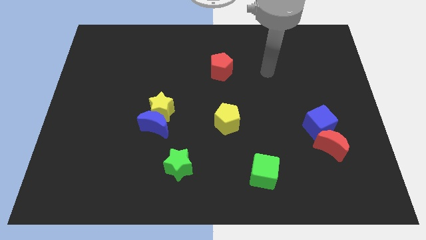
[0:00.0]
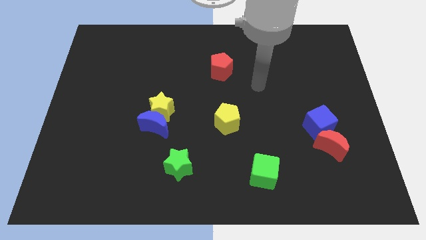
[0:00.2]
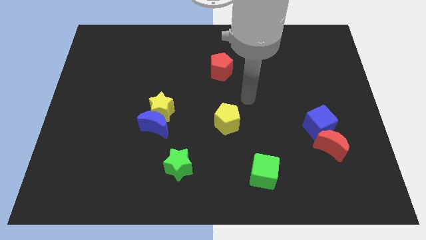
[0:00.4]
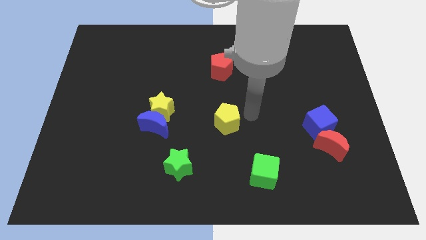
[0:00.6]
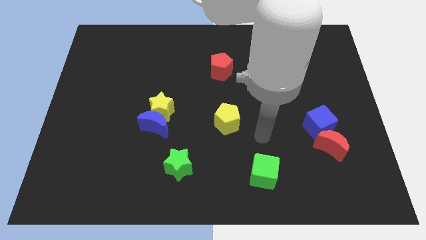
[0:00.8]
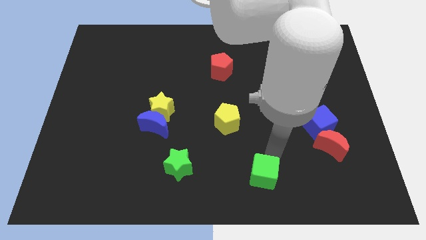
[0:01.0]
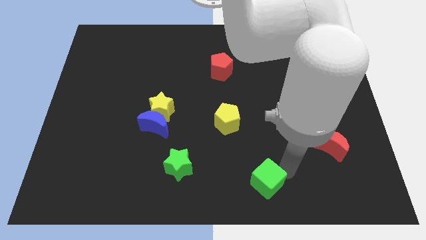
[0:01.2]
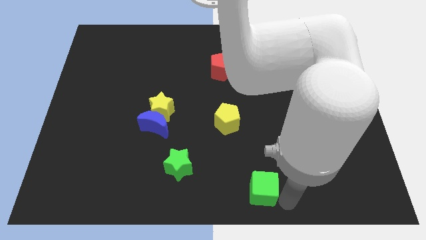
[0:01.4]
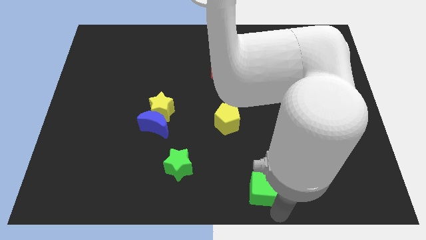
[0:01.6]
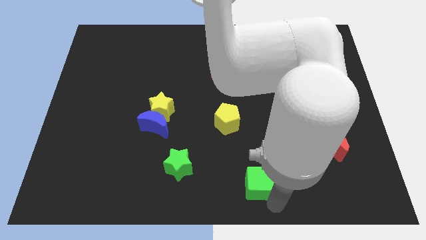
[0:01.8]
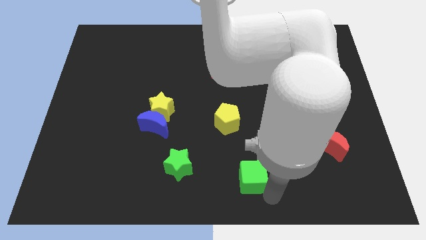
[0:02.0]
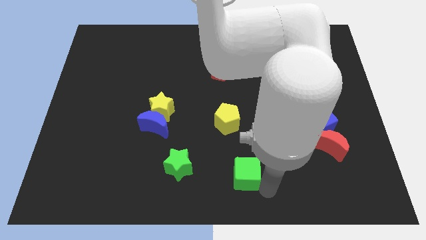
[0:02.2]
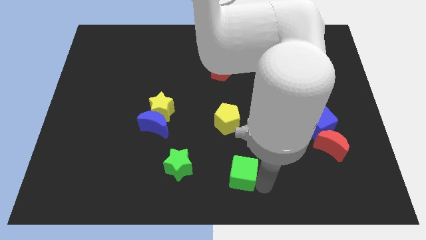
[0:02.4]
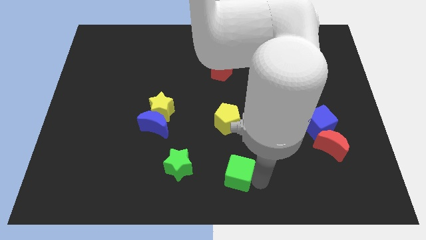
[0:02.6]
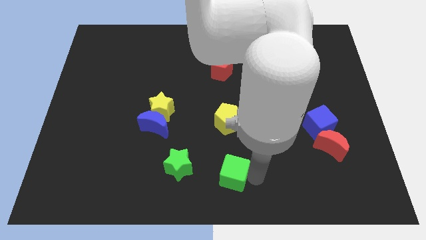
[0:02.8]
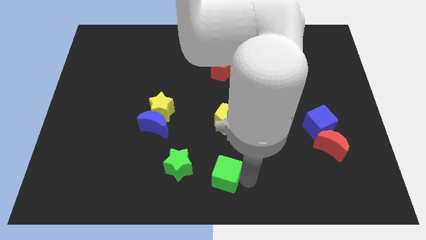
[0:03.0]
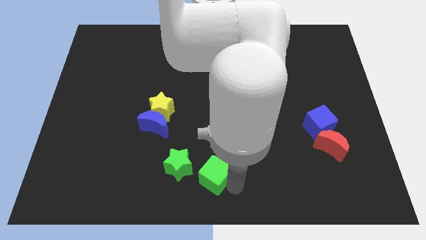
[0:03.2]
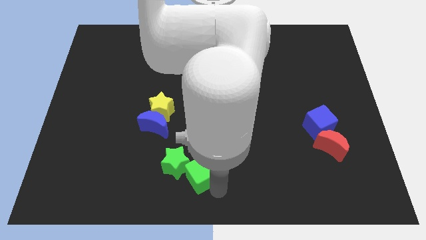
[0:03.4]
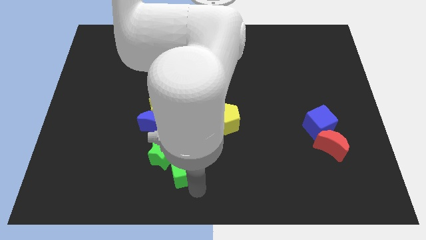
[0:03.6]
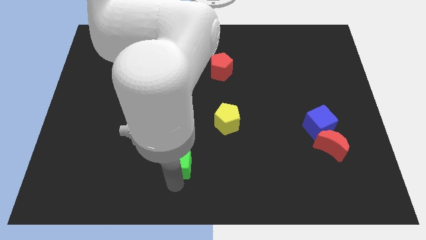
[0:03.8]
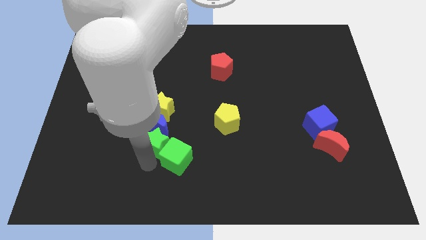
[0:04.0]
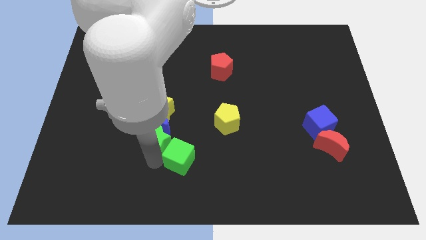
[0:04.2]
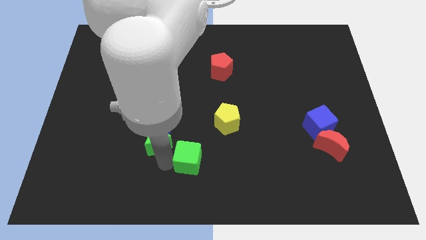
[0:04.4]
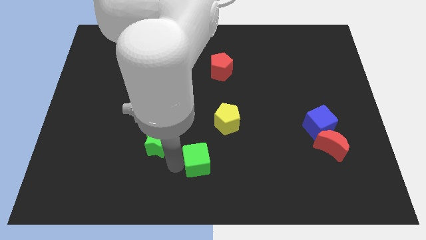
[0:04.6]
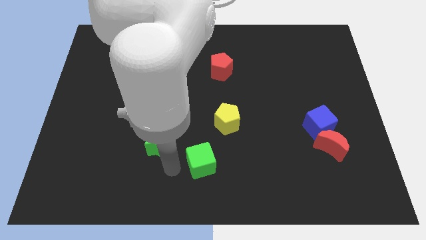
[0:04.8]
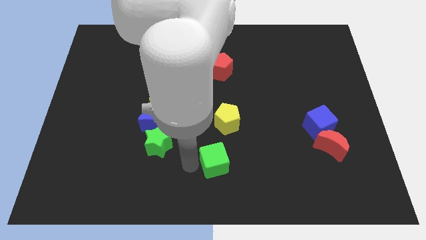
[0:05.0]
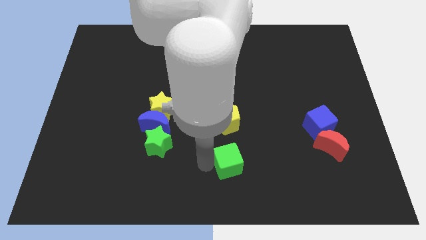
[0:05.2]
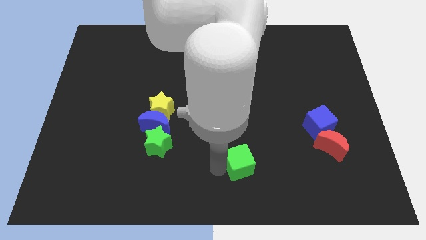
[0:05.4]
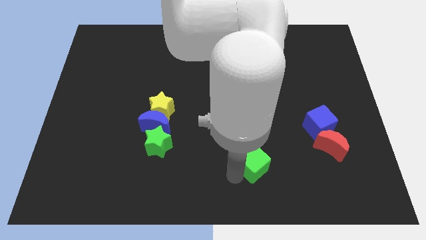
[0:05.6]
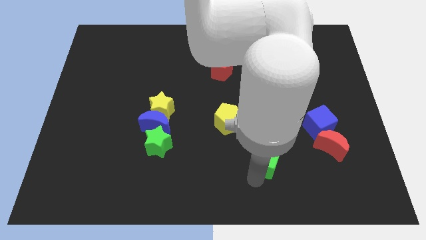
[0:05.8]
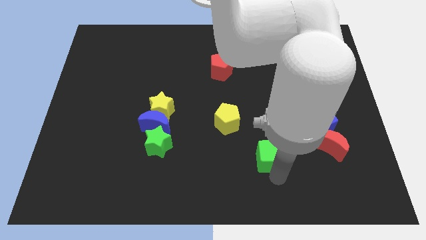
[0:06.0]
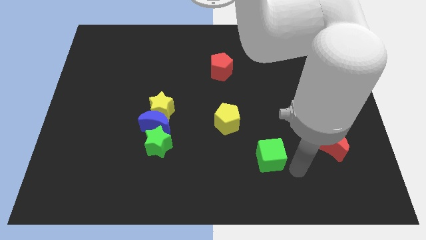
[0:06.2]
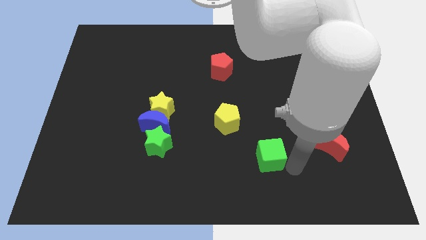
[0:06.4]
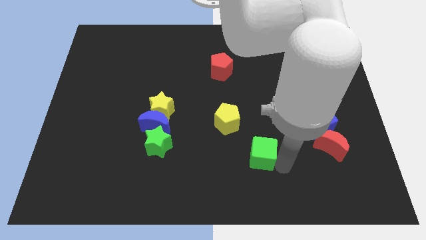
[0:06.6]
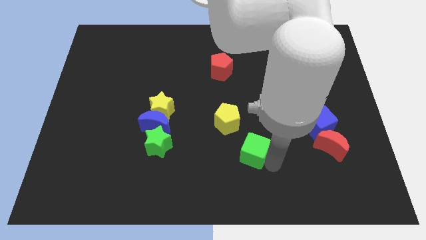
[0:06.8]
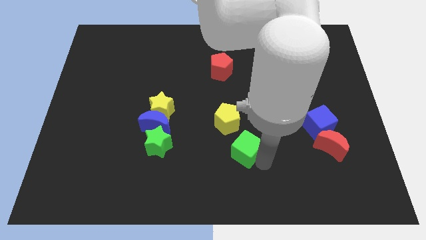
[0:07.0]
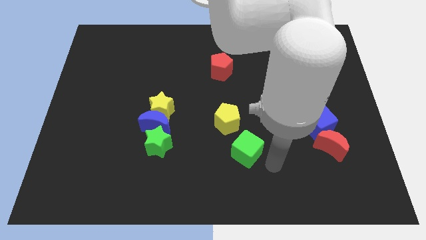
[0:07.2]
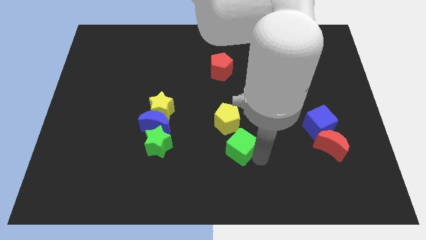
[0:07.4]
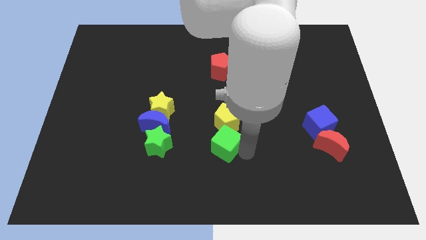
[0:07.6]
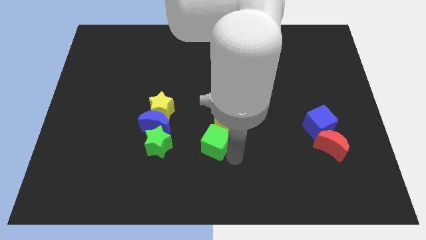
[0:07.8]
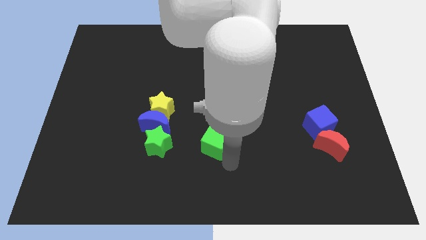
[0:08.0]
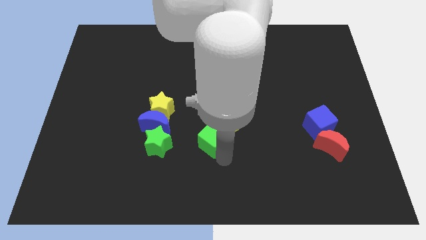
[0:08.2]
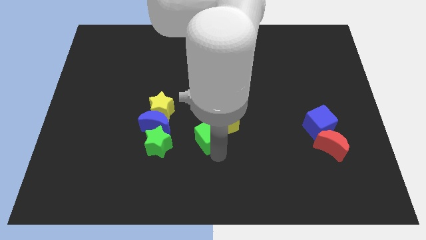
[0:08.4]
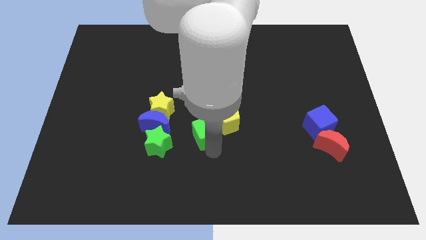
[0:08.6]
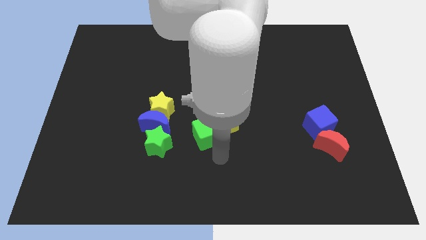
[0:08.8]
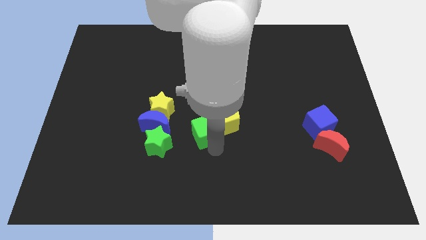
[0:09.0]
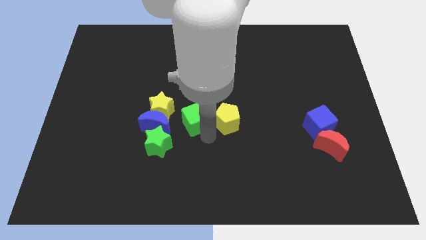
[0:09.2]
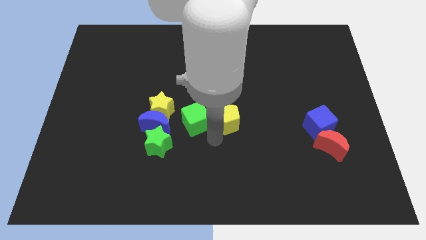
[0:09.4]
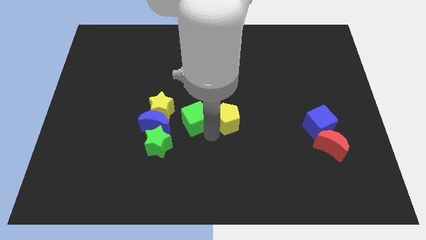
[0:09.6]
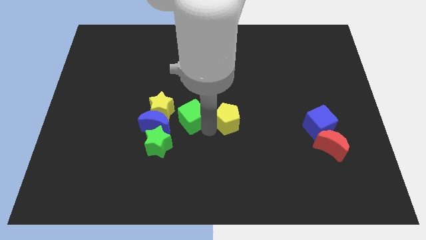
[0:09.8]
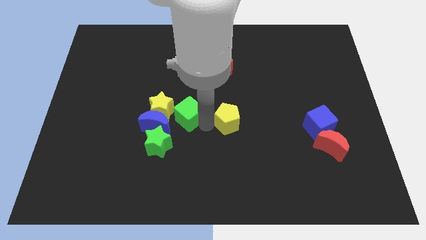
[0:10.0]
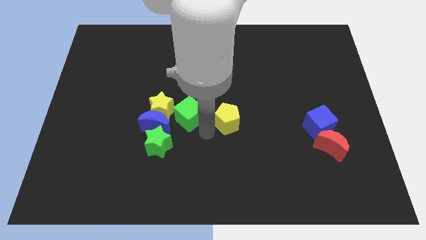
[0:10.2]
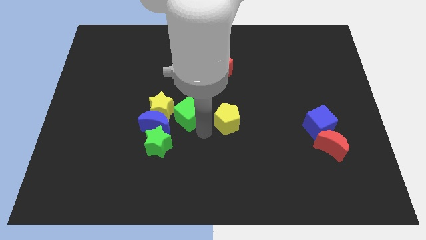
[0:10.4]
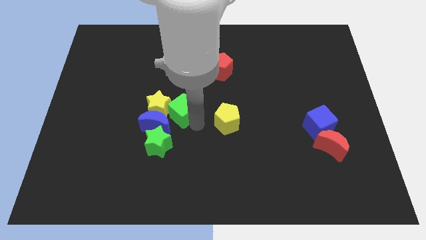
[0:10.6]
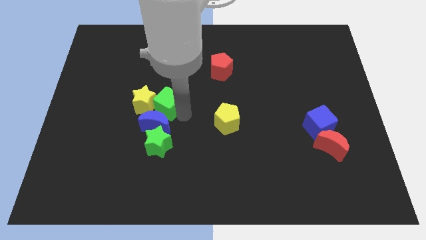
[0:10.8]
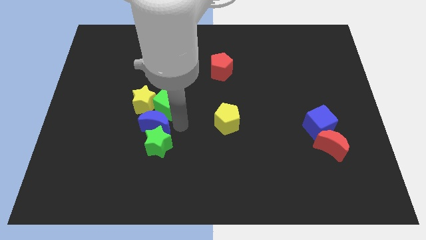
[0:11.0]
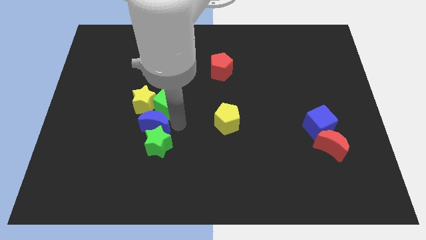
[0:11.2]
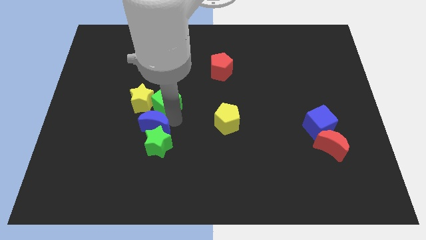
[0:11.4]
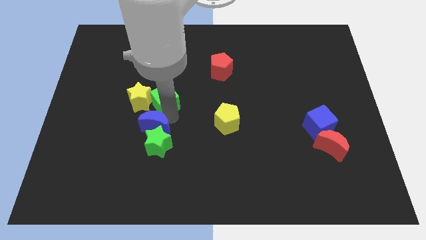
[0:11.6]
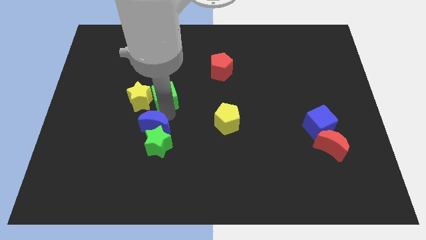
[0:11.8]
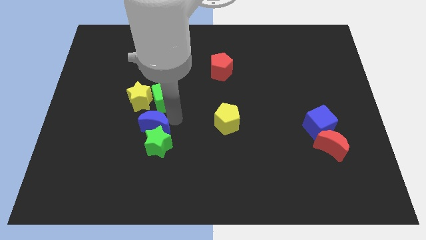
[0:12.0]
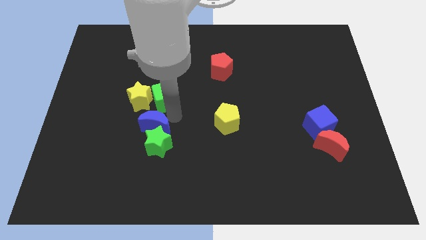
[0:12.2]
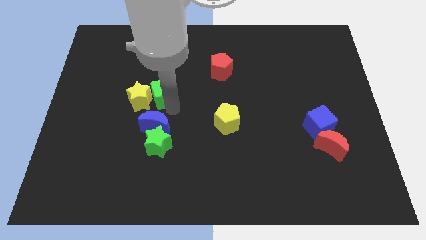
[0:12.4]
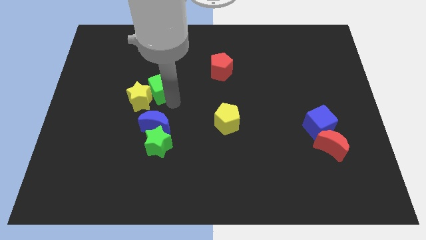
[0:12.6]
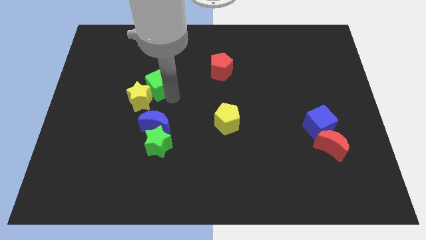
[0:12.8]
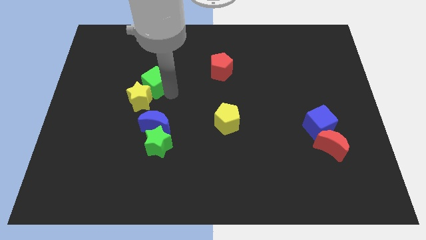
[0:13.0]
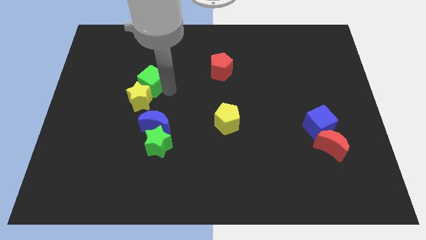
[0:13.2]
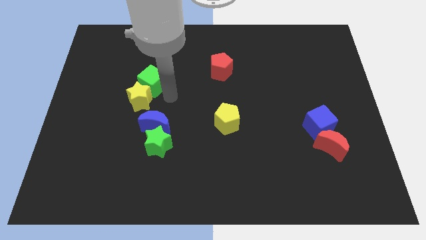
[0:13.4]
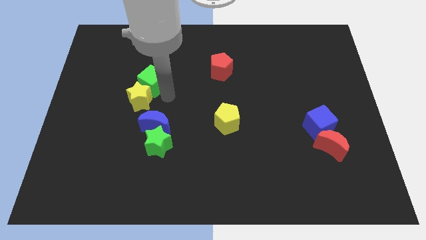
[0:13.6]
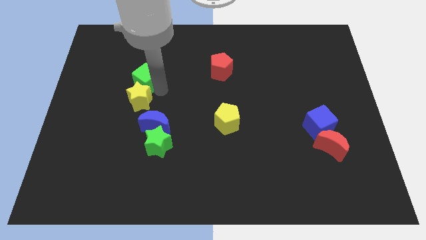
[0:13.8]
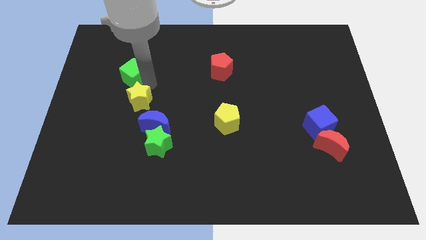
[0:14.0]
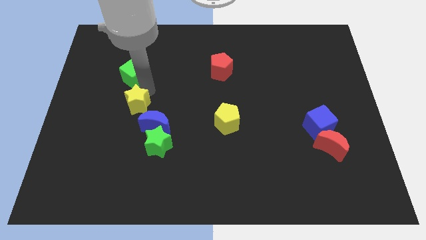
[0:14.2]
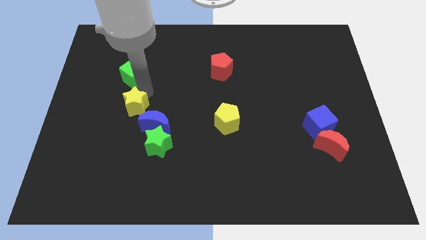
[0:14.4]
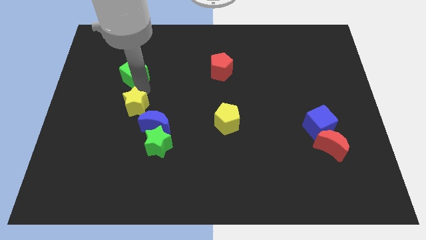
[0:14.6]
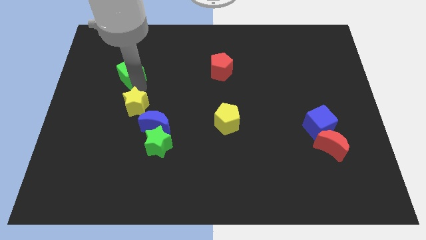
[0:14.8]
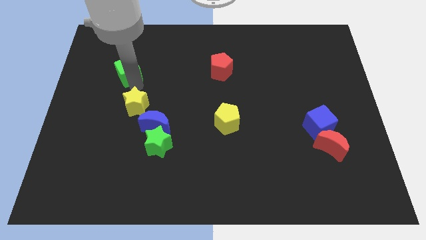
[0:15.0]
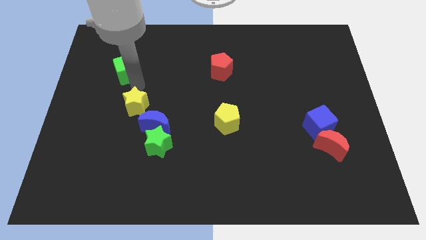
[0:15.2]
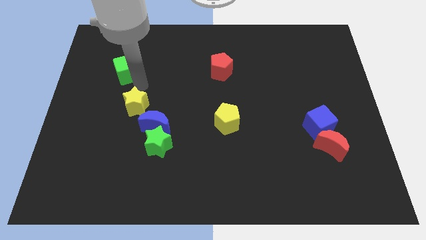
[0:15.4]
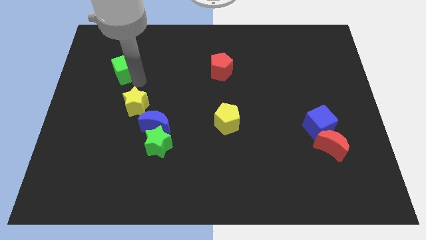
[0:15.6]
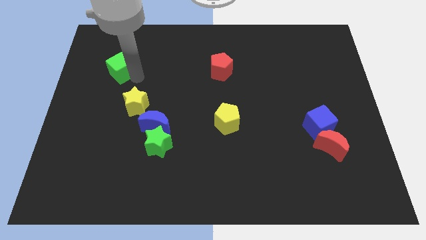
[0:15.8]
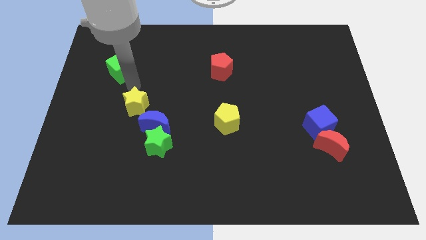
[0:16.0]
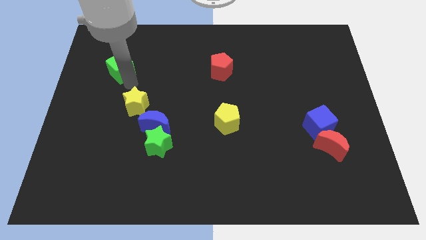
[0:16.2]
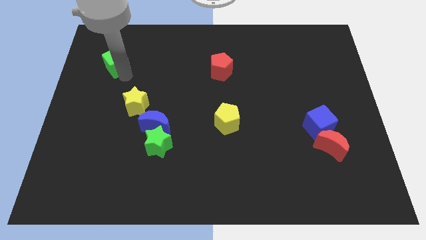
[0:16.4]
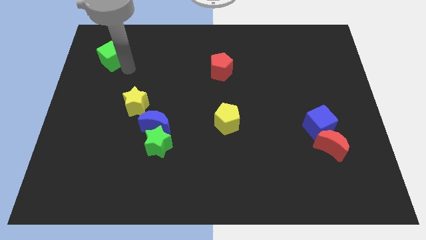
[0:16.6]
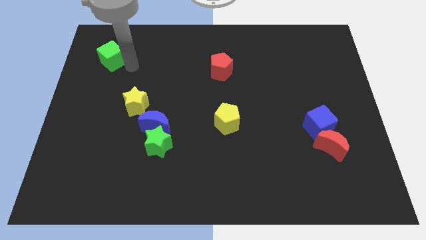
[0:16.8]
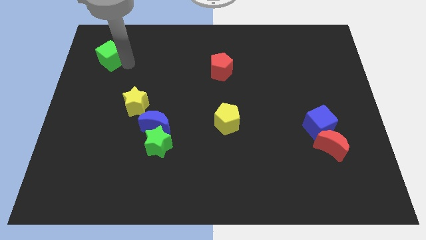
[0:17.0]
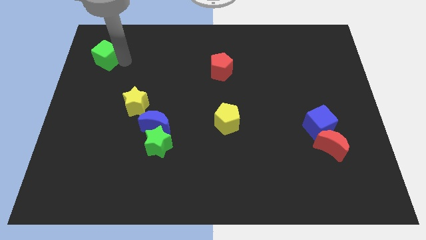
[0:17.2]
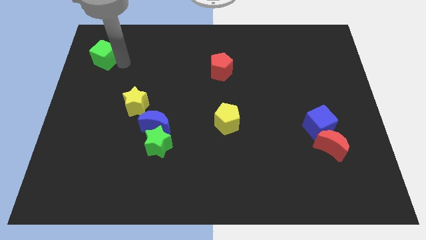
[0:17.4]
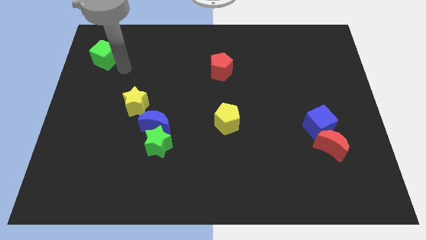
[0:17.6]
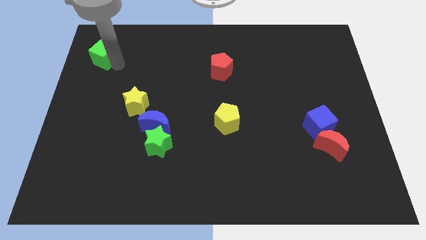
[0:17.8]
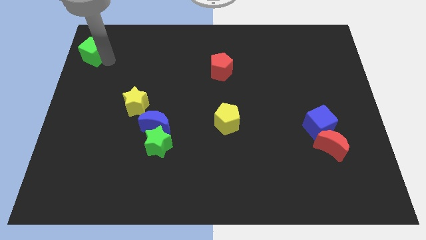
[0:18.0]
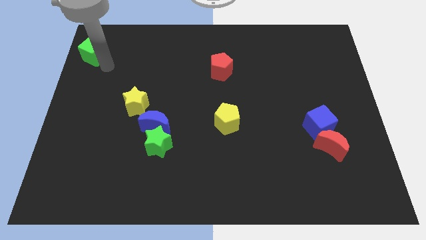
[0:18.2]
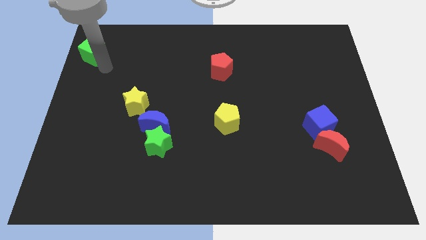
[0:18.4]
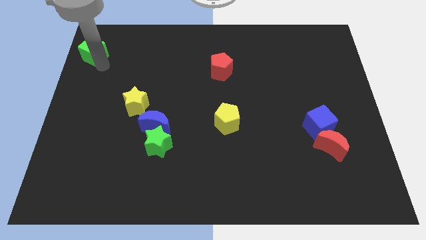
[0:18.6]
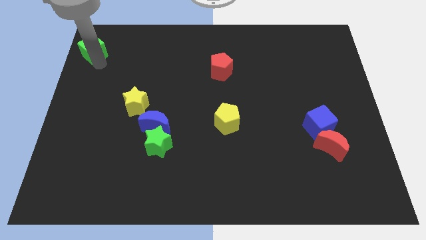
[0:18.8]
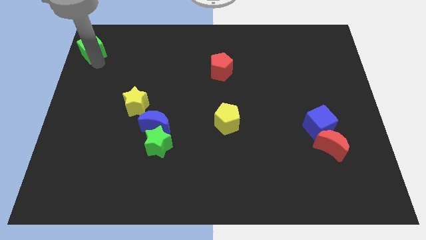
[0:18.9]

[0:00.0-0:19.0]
put the green cube to the top left corner
